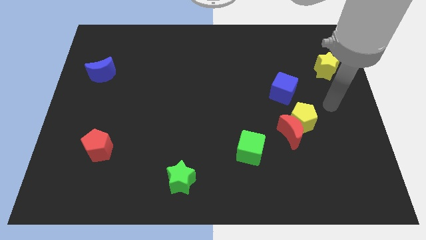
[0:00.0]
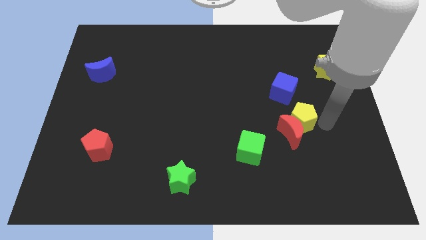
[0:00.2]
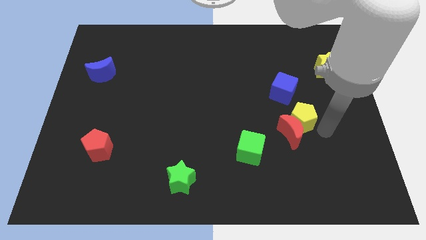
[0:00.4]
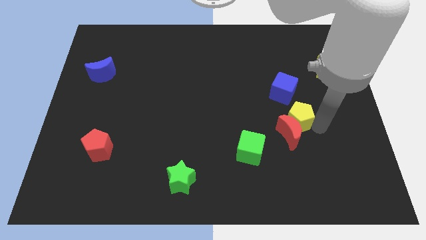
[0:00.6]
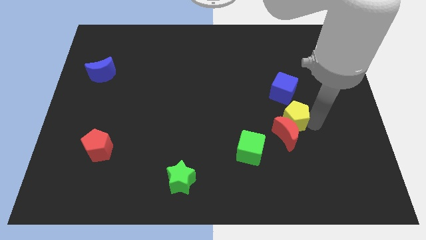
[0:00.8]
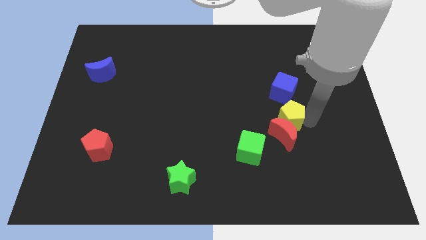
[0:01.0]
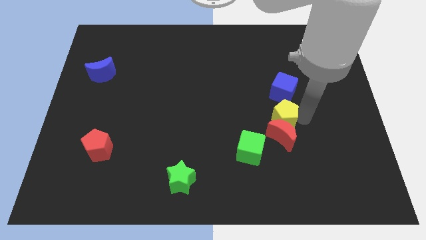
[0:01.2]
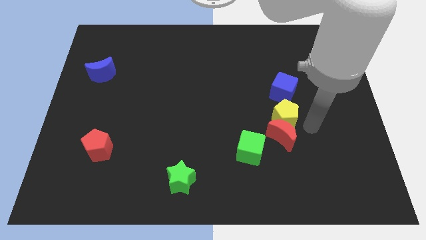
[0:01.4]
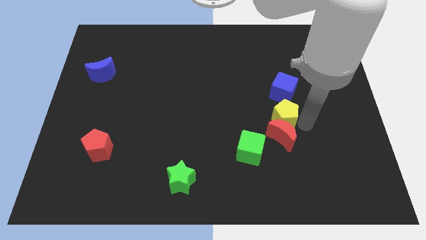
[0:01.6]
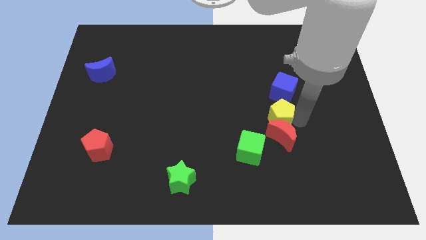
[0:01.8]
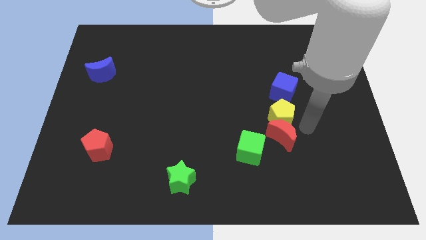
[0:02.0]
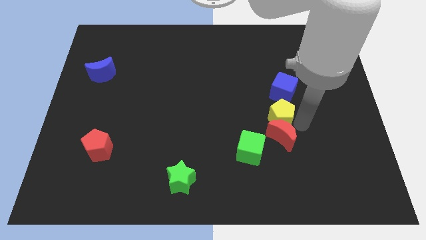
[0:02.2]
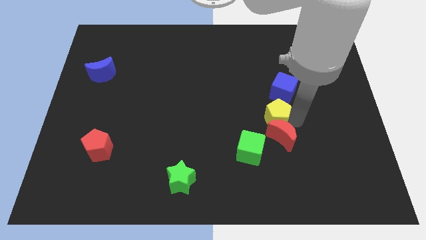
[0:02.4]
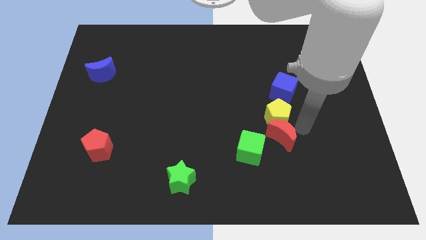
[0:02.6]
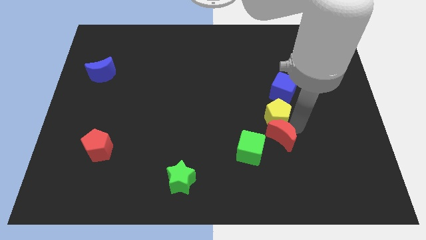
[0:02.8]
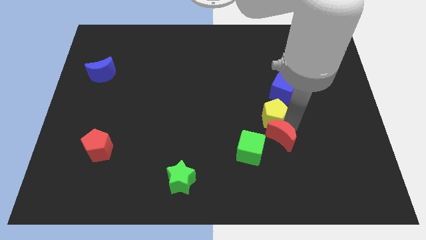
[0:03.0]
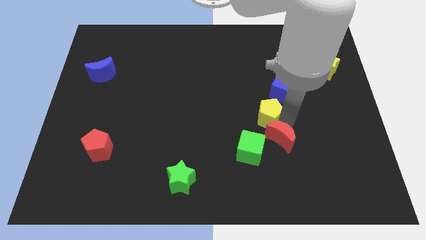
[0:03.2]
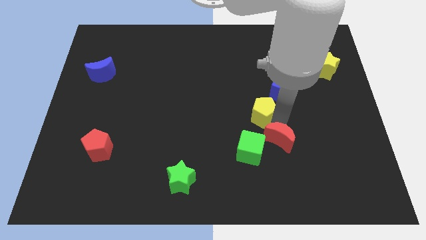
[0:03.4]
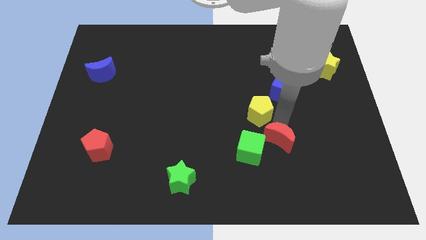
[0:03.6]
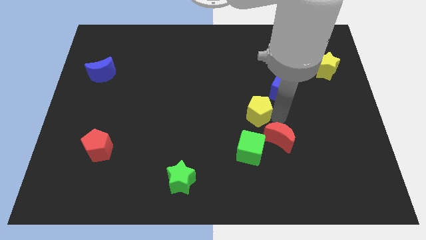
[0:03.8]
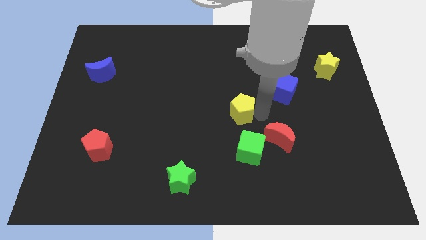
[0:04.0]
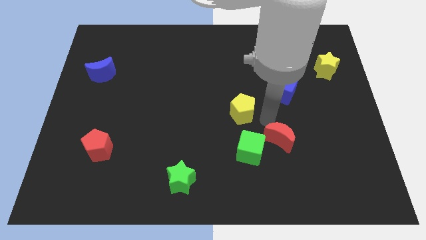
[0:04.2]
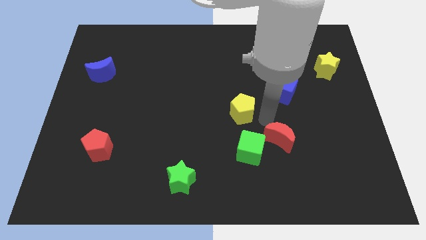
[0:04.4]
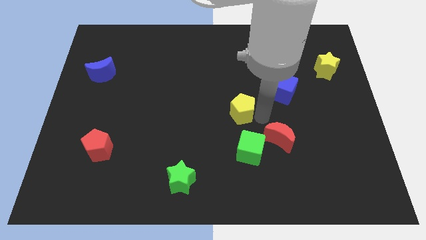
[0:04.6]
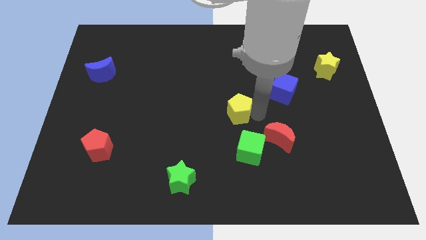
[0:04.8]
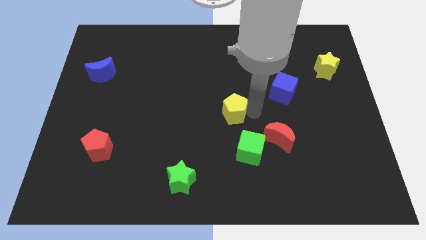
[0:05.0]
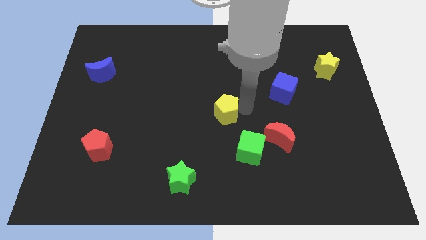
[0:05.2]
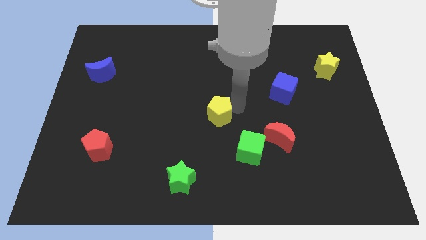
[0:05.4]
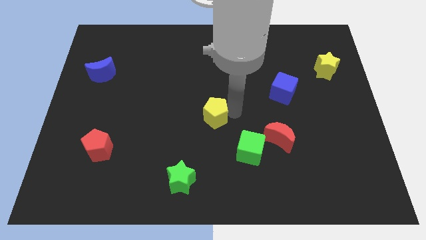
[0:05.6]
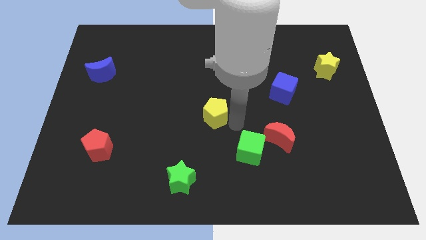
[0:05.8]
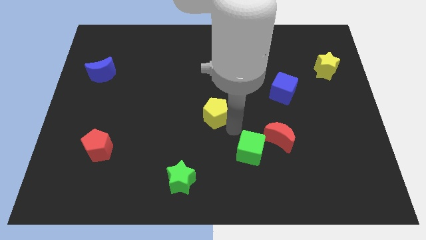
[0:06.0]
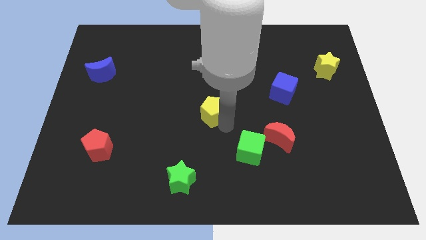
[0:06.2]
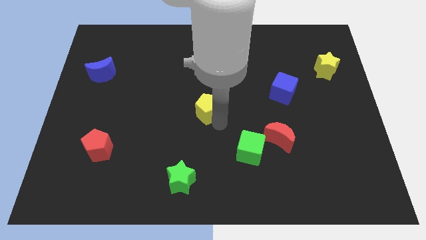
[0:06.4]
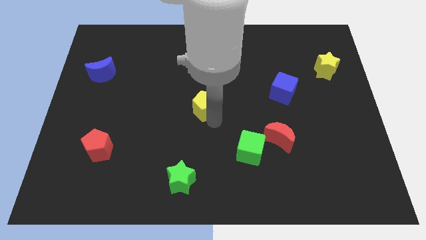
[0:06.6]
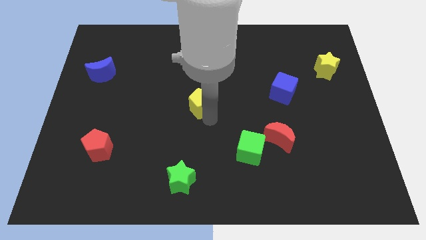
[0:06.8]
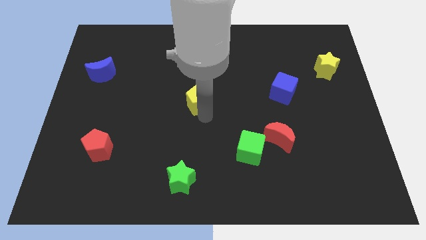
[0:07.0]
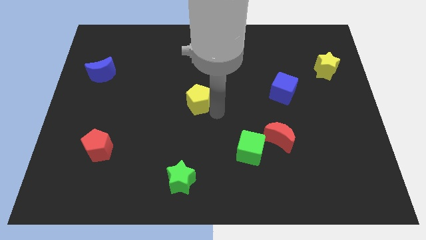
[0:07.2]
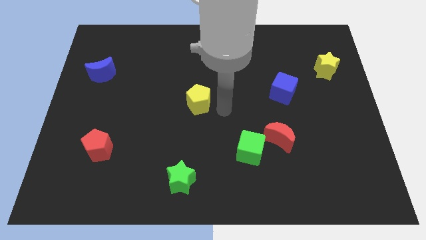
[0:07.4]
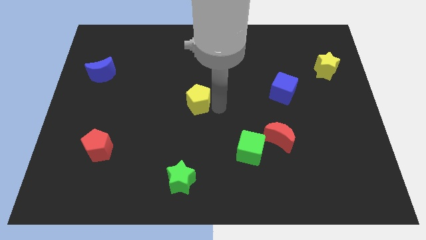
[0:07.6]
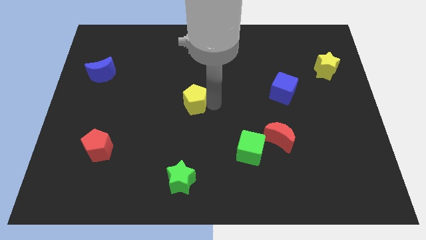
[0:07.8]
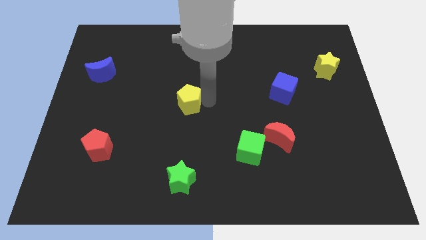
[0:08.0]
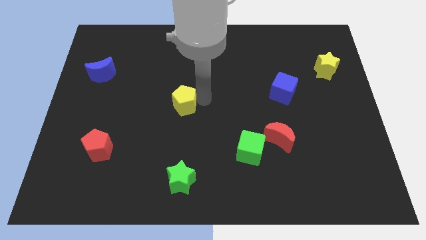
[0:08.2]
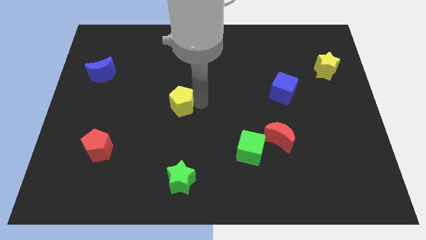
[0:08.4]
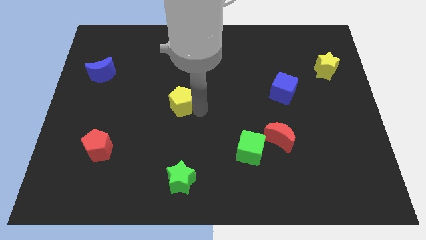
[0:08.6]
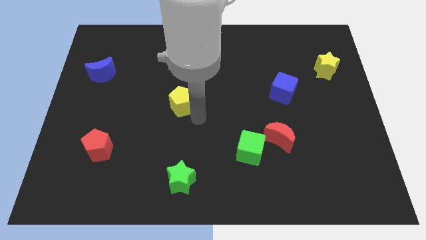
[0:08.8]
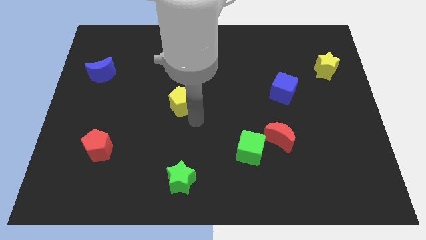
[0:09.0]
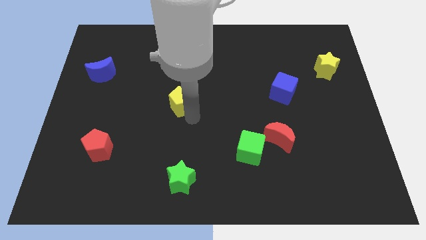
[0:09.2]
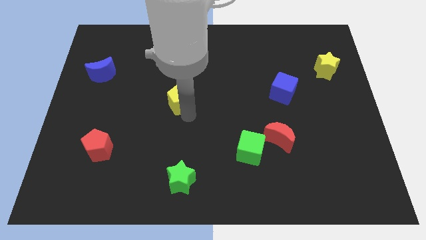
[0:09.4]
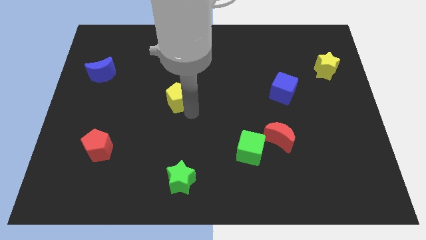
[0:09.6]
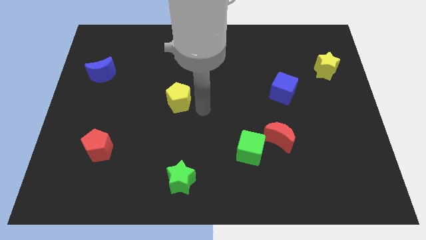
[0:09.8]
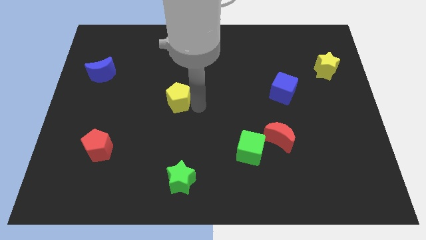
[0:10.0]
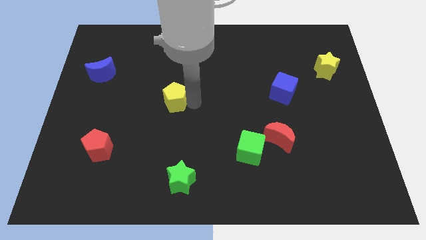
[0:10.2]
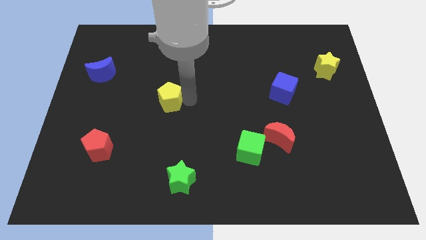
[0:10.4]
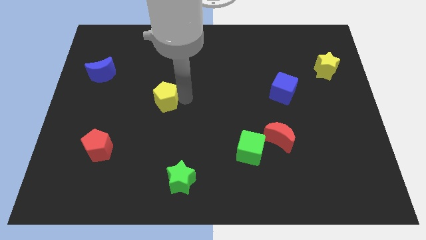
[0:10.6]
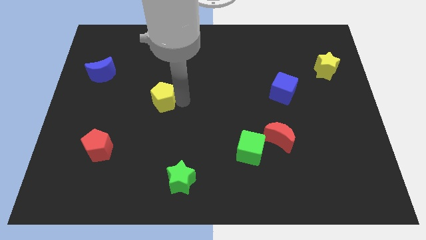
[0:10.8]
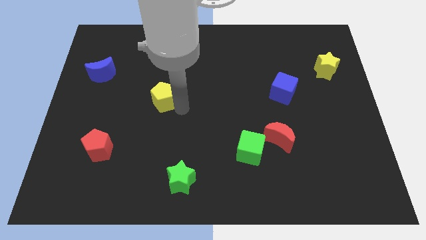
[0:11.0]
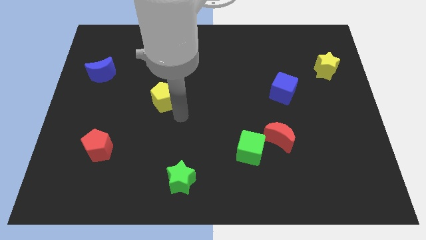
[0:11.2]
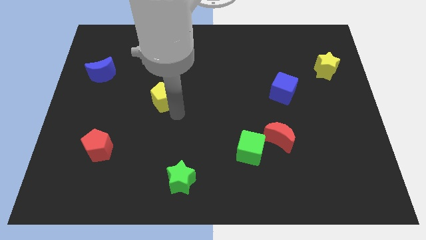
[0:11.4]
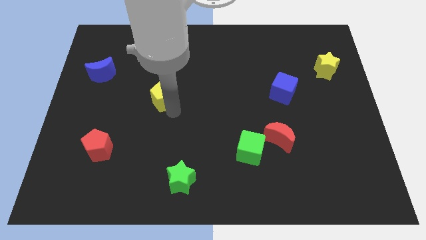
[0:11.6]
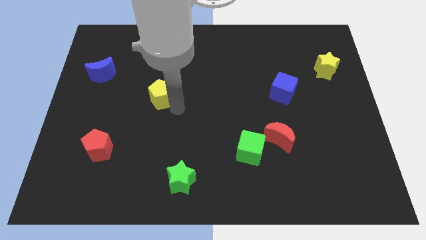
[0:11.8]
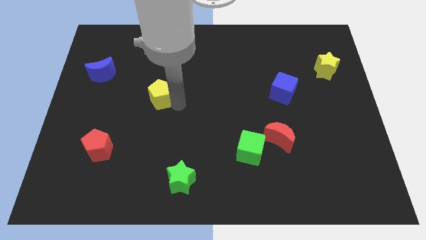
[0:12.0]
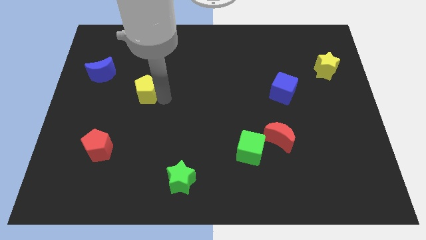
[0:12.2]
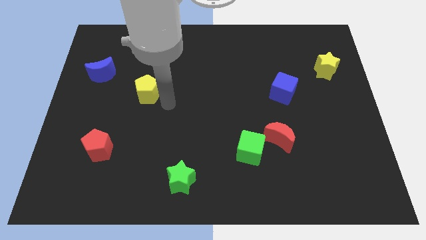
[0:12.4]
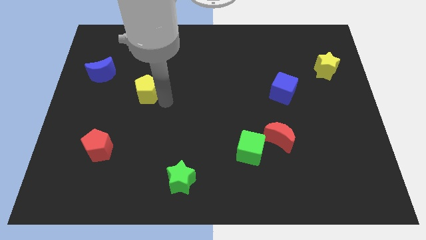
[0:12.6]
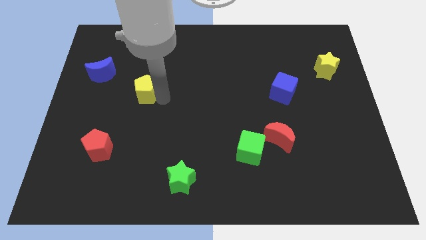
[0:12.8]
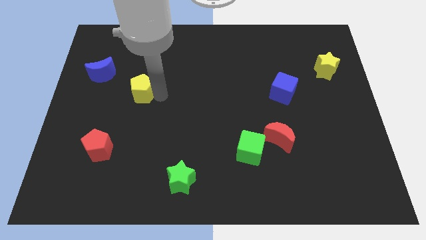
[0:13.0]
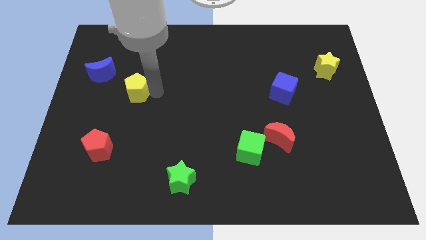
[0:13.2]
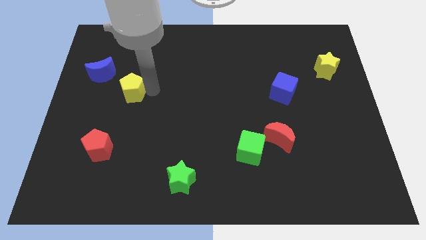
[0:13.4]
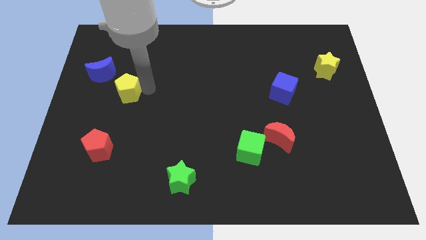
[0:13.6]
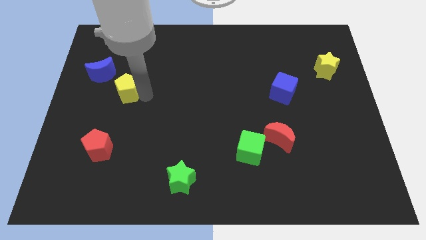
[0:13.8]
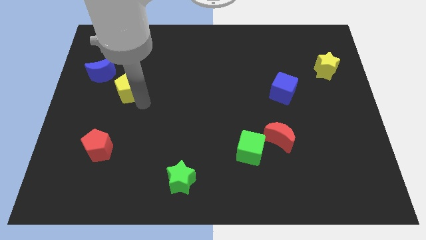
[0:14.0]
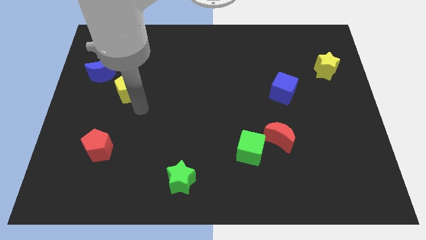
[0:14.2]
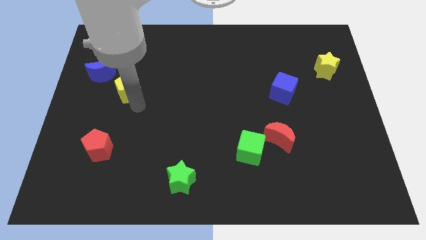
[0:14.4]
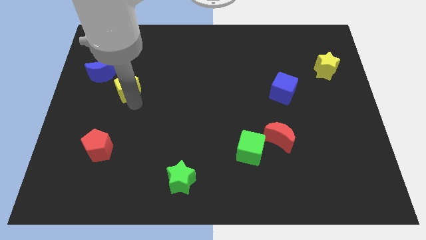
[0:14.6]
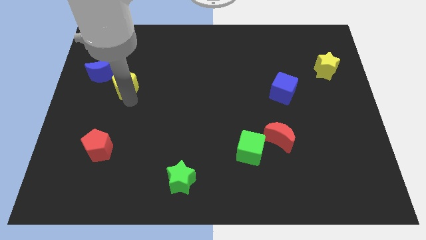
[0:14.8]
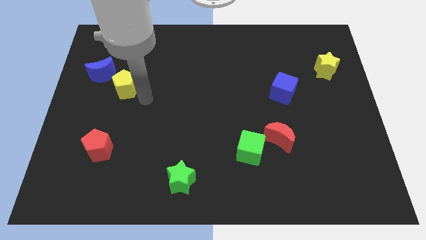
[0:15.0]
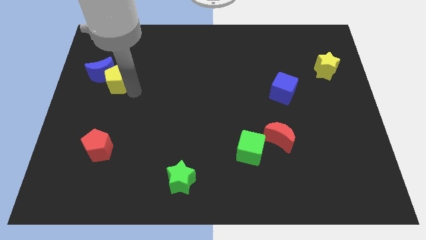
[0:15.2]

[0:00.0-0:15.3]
move the yellow pentagon towards the blue moon
